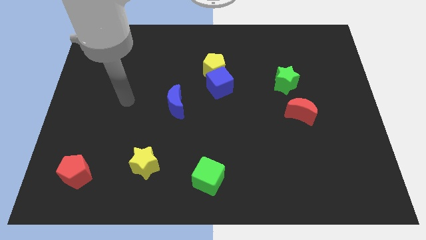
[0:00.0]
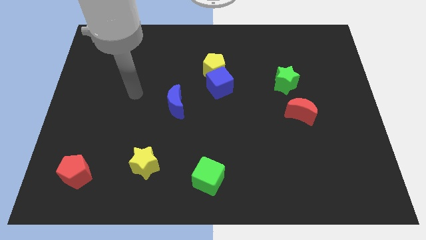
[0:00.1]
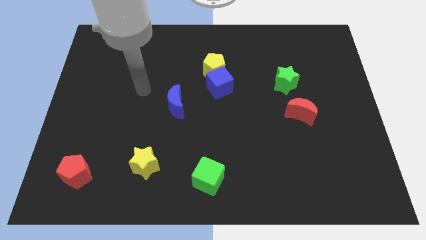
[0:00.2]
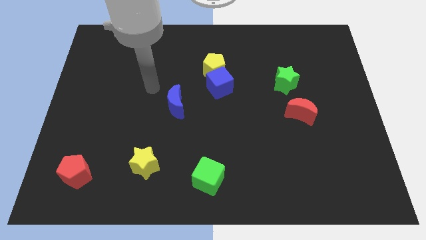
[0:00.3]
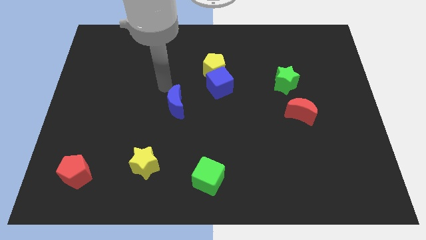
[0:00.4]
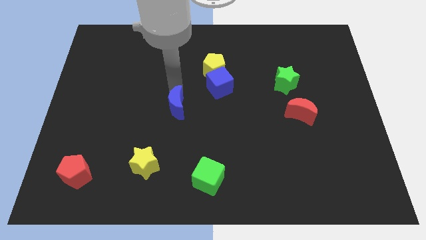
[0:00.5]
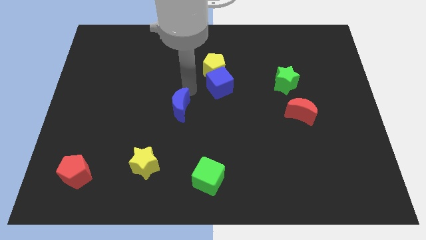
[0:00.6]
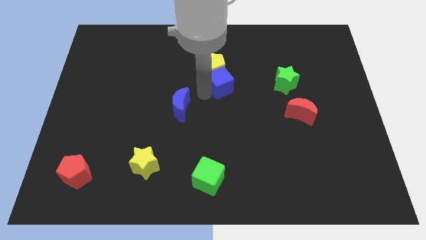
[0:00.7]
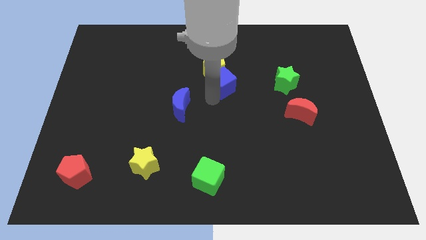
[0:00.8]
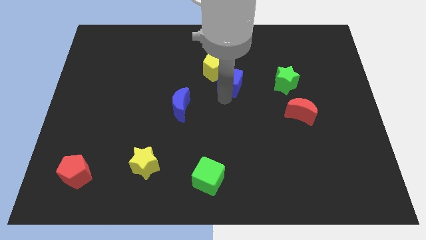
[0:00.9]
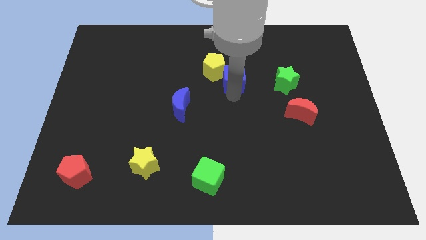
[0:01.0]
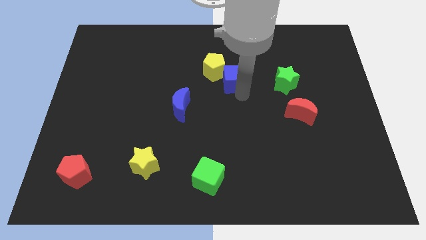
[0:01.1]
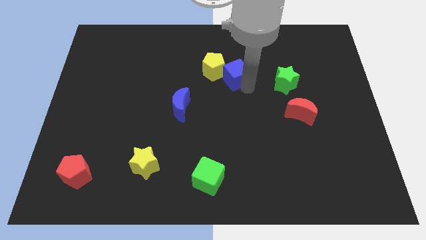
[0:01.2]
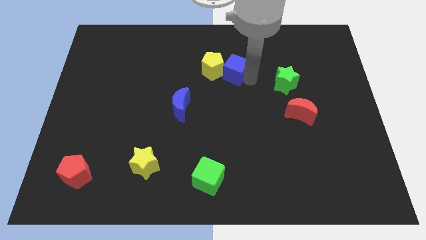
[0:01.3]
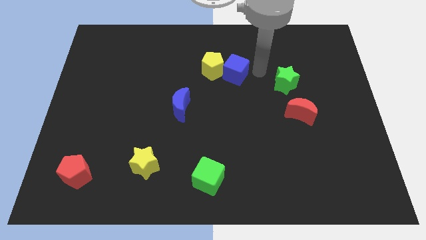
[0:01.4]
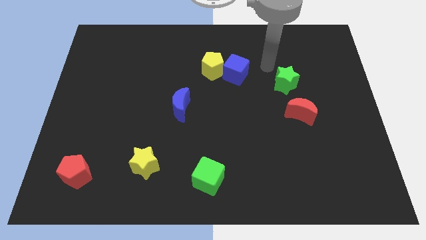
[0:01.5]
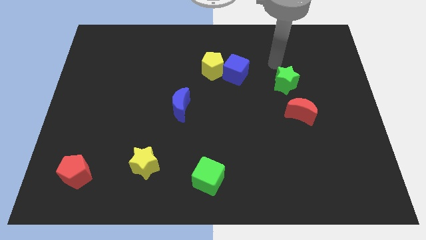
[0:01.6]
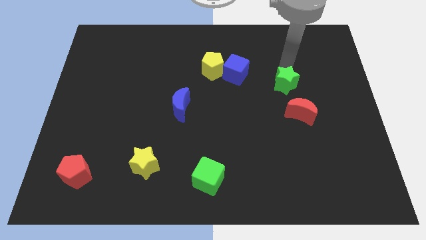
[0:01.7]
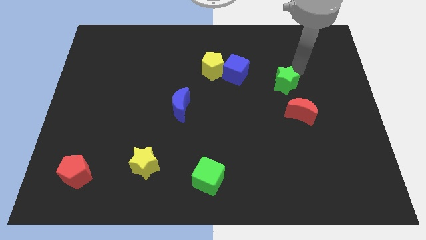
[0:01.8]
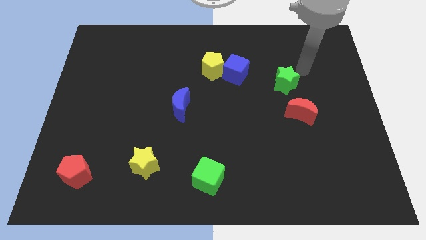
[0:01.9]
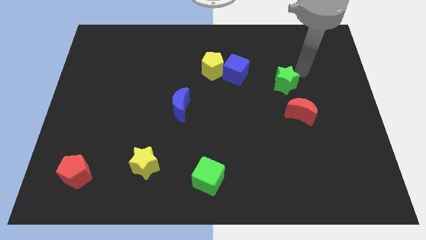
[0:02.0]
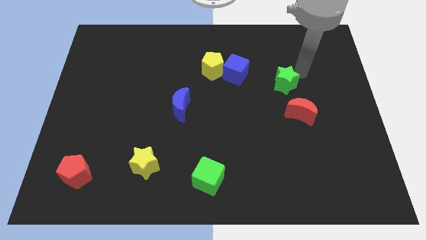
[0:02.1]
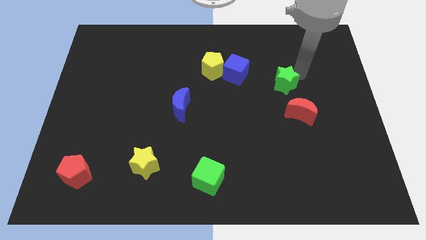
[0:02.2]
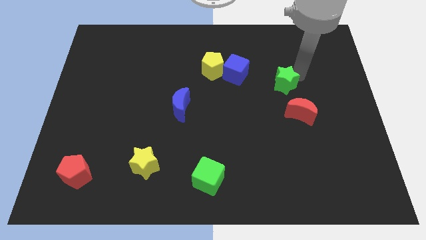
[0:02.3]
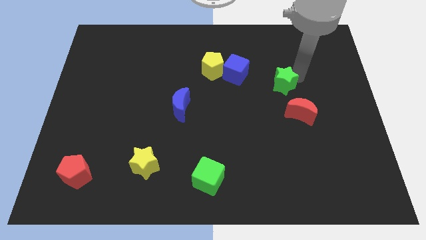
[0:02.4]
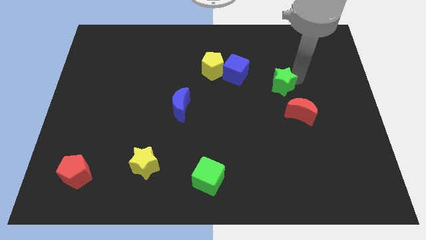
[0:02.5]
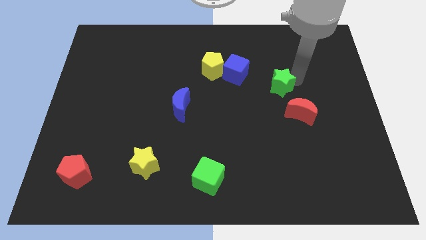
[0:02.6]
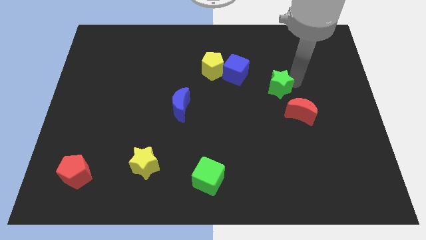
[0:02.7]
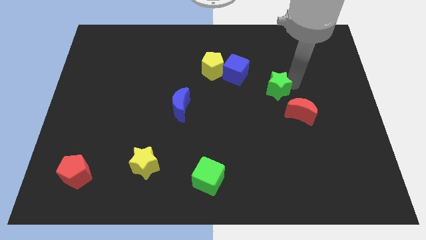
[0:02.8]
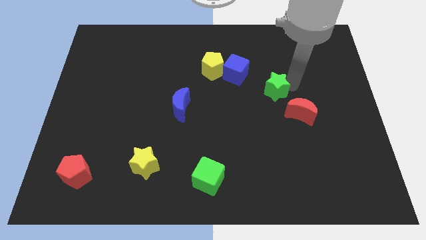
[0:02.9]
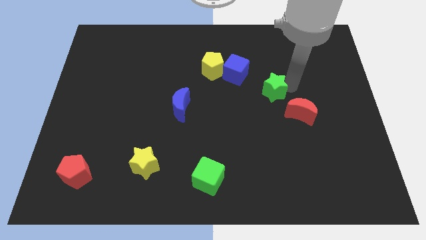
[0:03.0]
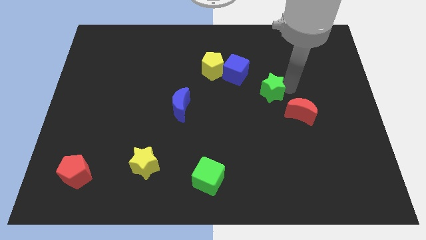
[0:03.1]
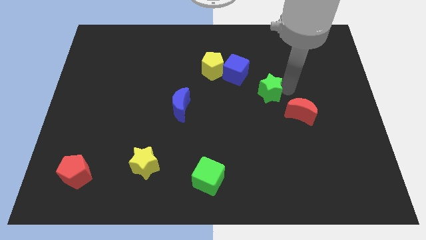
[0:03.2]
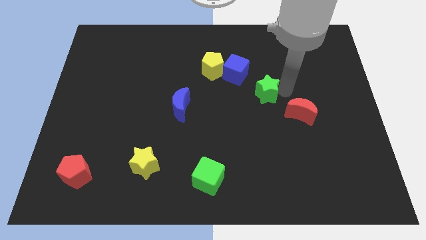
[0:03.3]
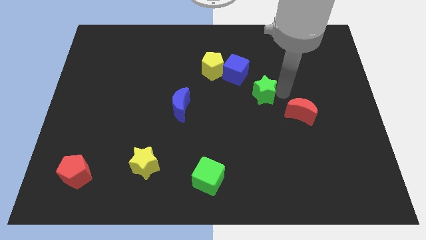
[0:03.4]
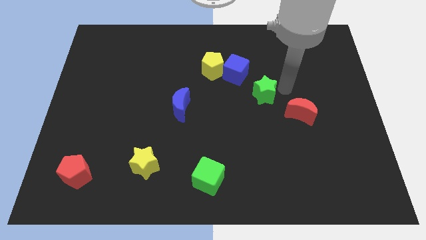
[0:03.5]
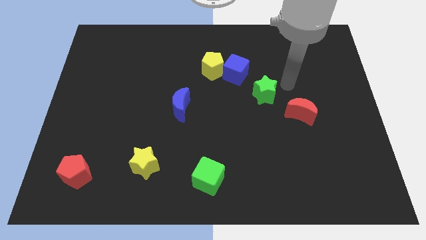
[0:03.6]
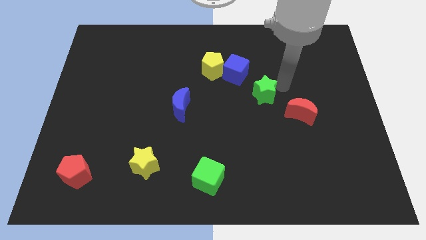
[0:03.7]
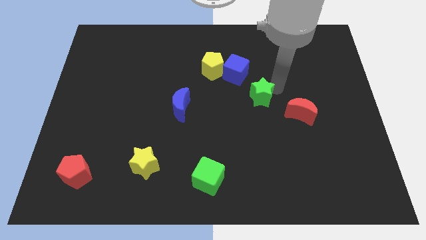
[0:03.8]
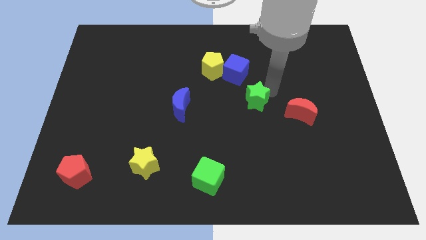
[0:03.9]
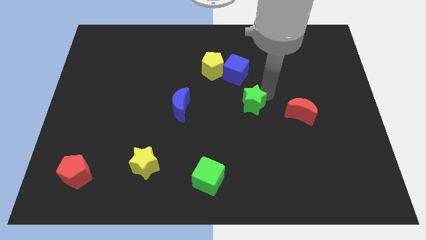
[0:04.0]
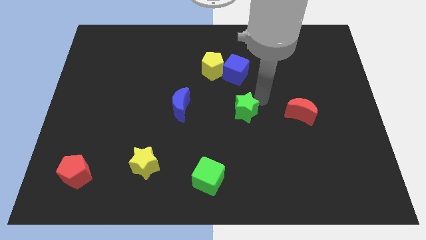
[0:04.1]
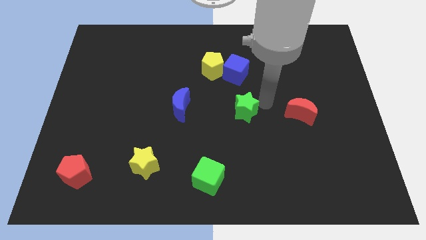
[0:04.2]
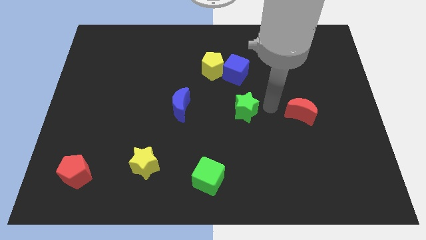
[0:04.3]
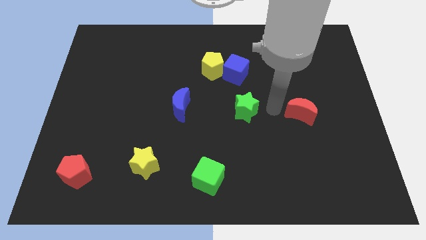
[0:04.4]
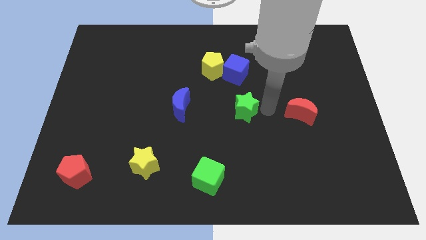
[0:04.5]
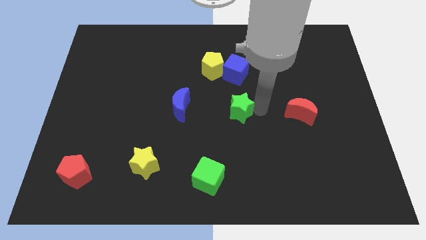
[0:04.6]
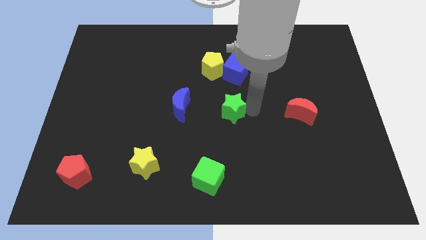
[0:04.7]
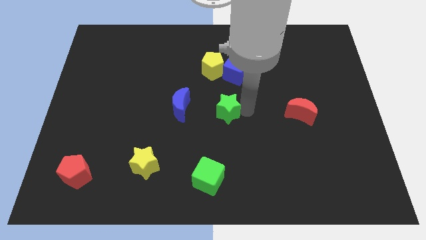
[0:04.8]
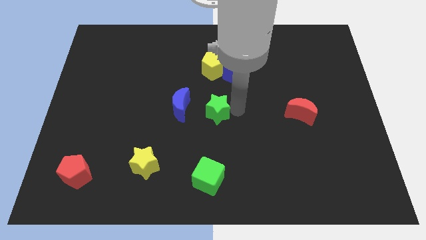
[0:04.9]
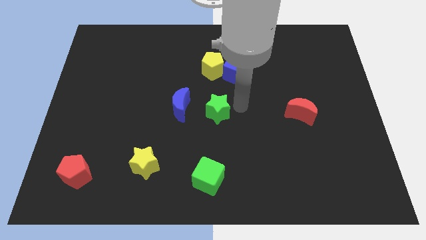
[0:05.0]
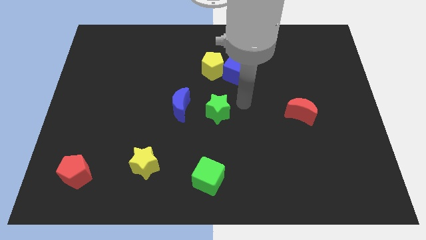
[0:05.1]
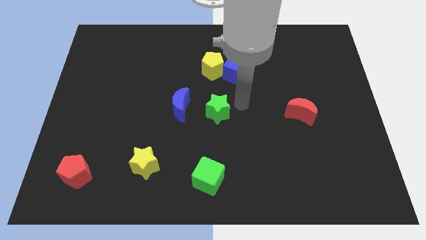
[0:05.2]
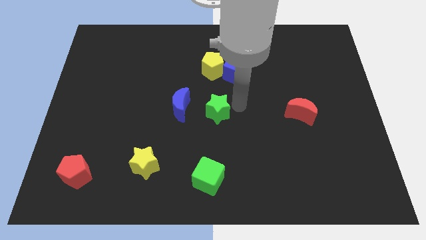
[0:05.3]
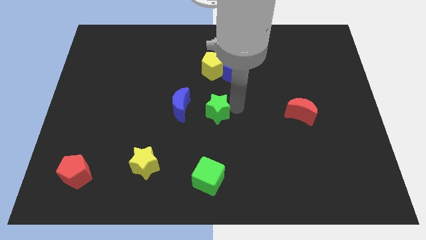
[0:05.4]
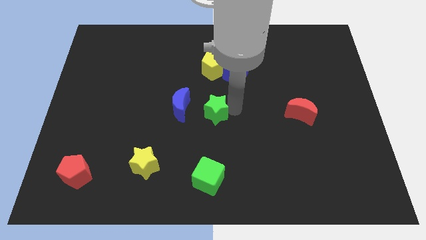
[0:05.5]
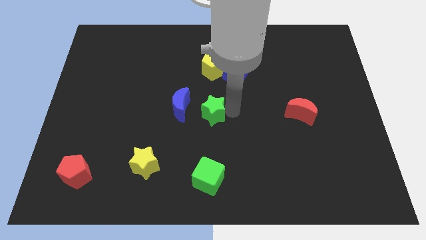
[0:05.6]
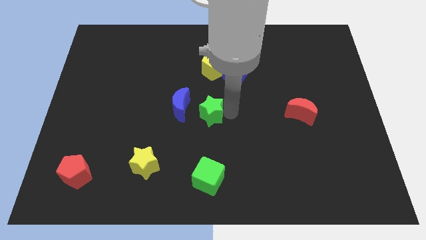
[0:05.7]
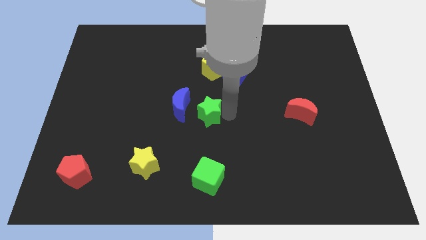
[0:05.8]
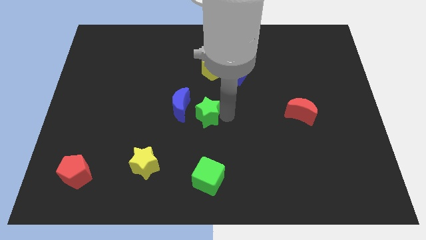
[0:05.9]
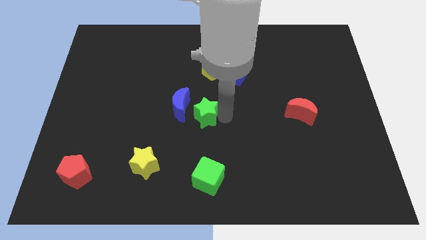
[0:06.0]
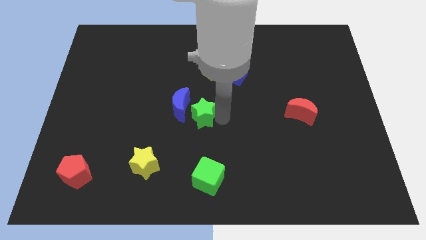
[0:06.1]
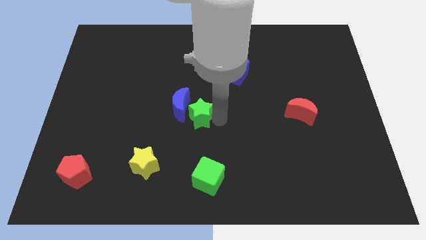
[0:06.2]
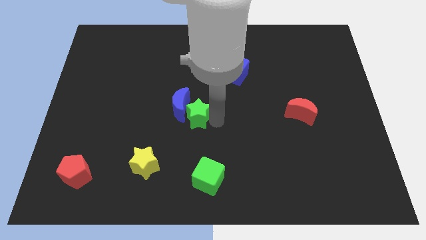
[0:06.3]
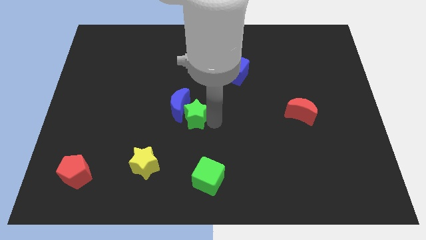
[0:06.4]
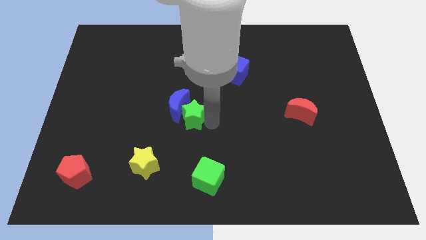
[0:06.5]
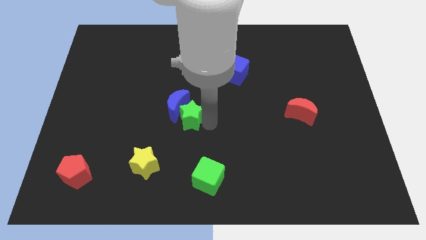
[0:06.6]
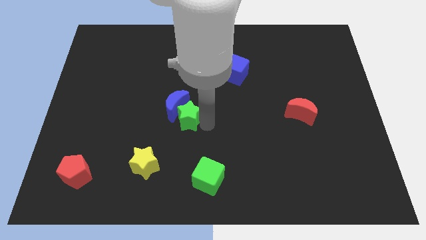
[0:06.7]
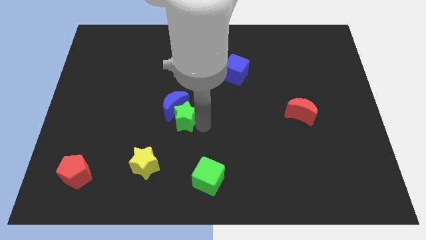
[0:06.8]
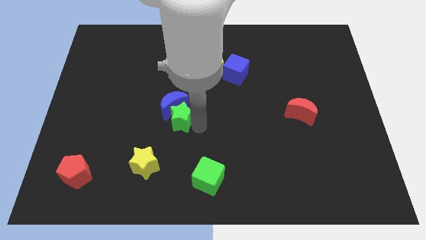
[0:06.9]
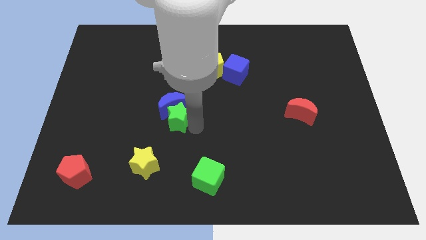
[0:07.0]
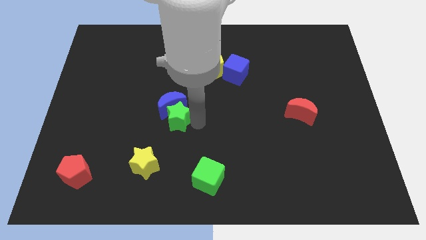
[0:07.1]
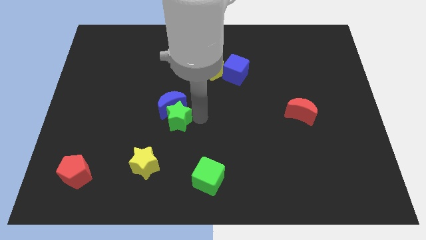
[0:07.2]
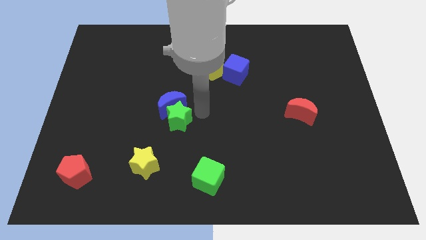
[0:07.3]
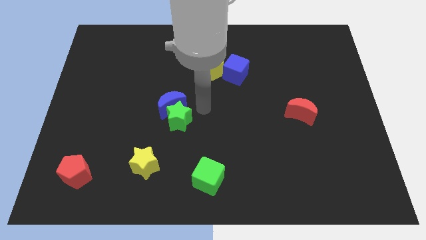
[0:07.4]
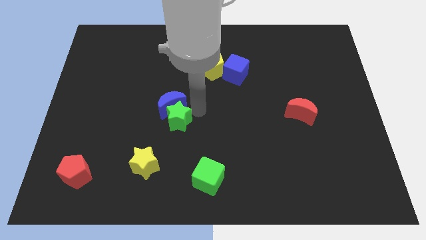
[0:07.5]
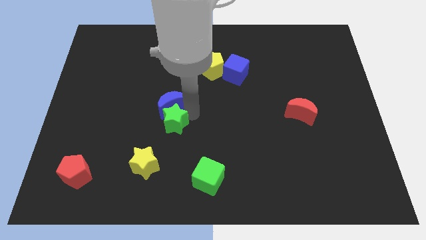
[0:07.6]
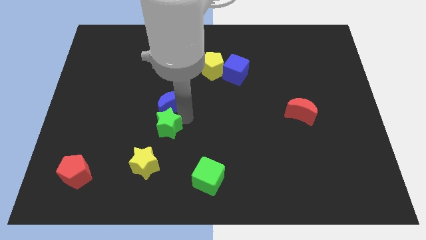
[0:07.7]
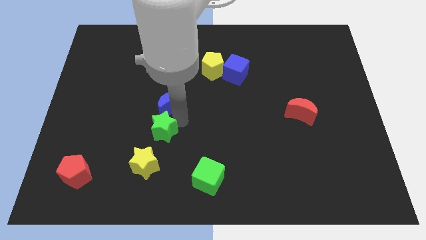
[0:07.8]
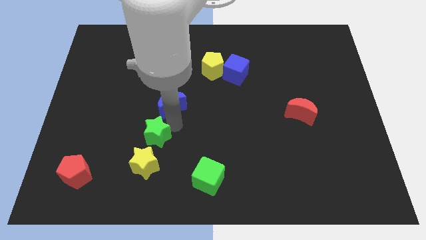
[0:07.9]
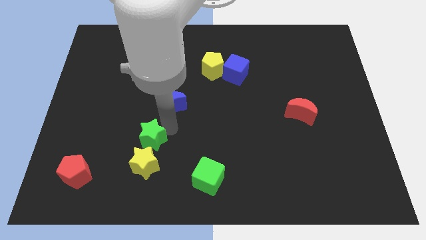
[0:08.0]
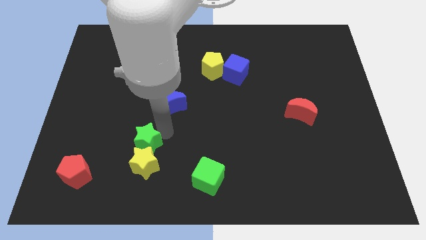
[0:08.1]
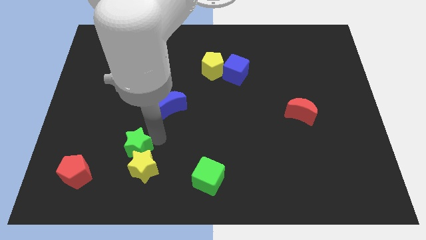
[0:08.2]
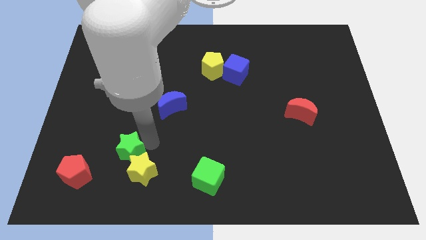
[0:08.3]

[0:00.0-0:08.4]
push the green star left of the yellow star
